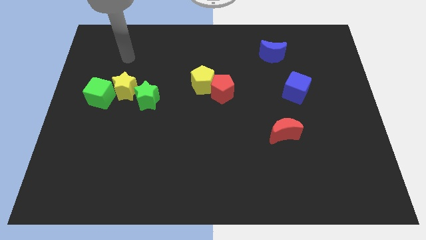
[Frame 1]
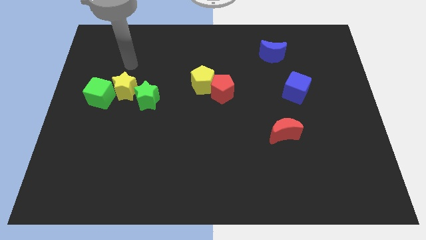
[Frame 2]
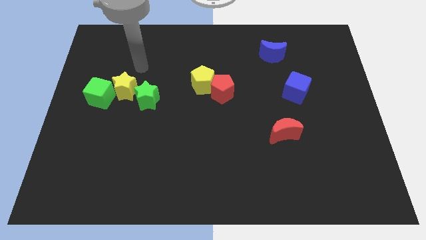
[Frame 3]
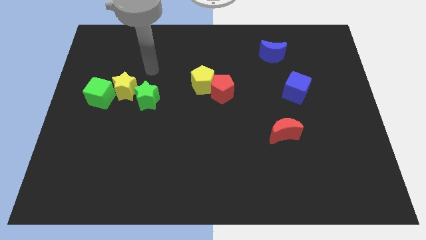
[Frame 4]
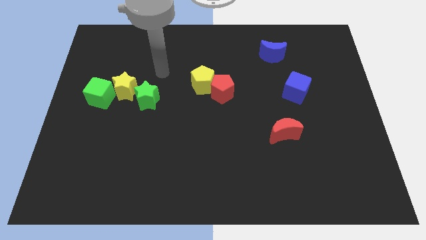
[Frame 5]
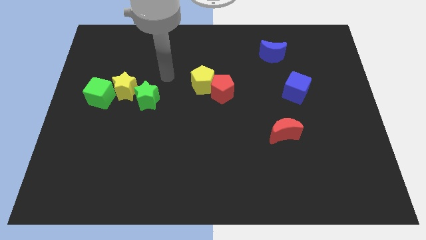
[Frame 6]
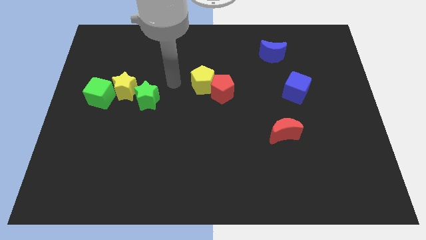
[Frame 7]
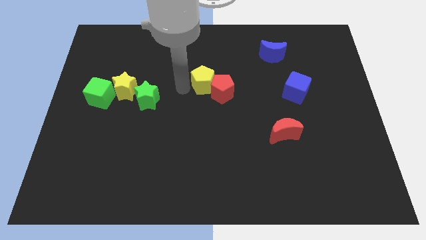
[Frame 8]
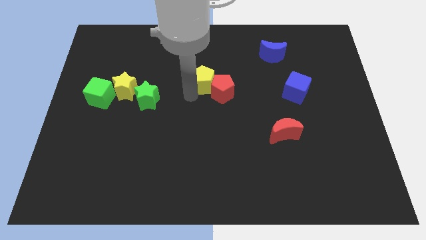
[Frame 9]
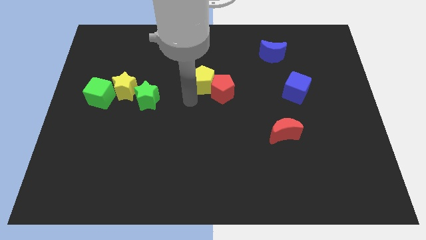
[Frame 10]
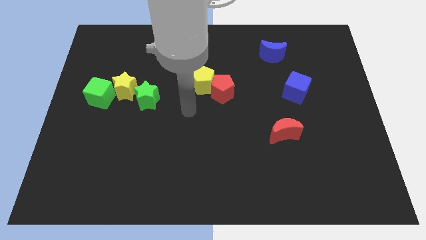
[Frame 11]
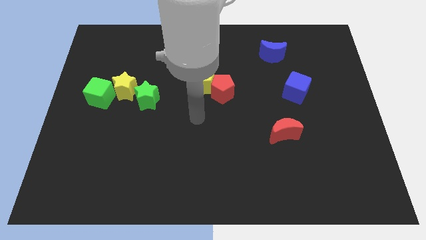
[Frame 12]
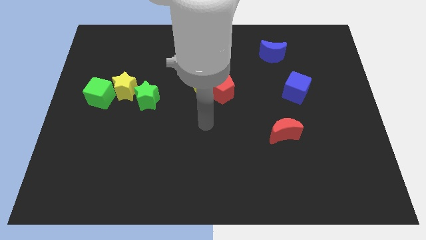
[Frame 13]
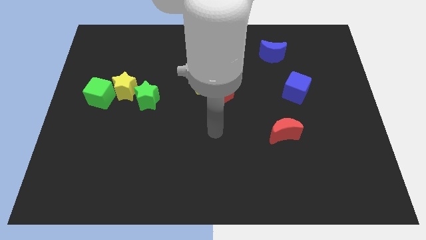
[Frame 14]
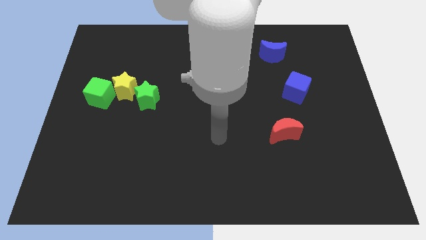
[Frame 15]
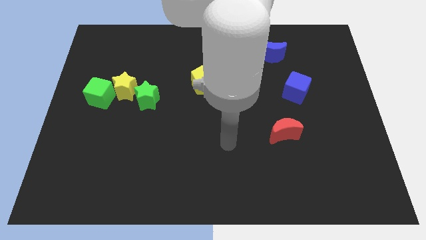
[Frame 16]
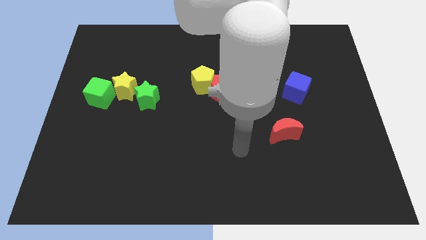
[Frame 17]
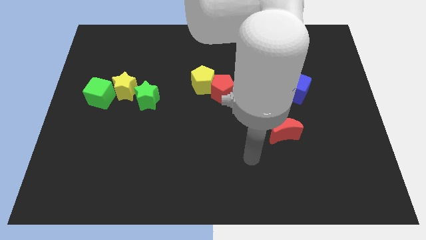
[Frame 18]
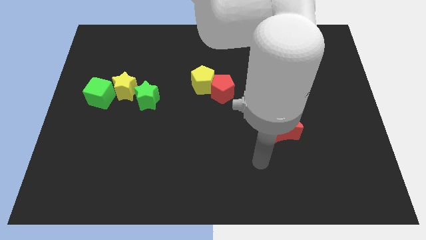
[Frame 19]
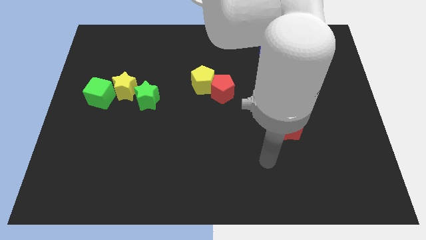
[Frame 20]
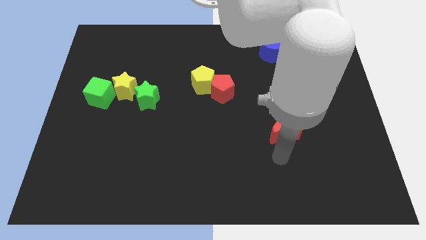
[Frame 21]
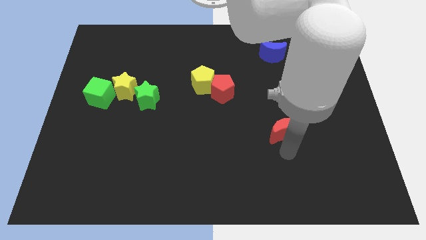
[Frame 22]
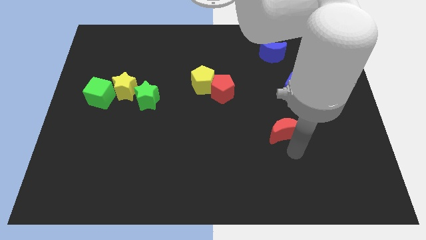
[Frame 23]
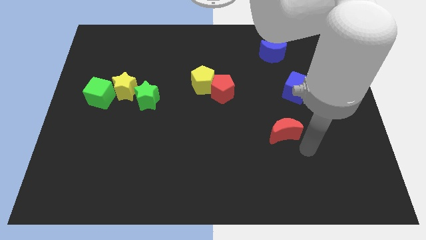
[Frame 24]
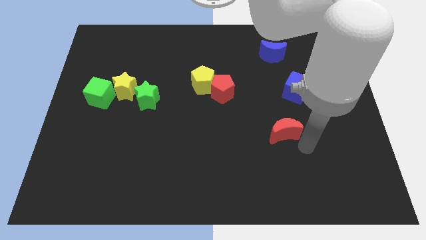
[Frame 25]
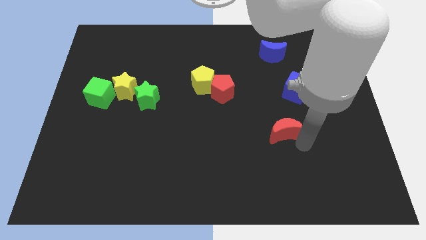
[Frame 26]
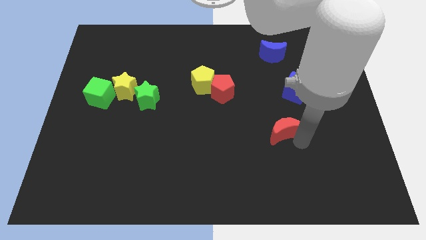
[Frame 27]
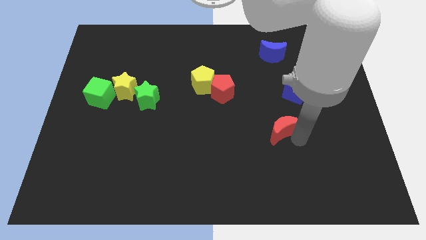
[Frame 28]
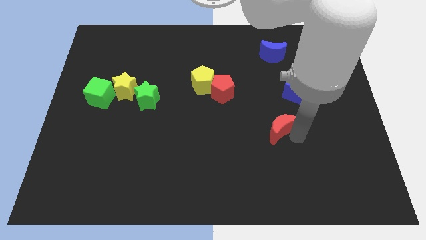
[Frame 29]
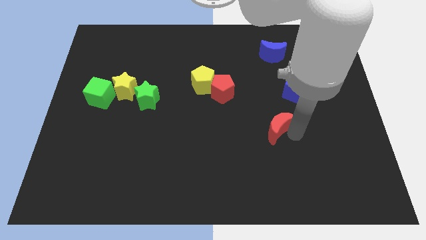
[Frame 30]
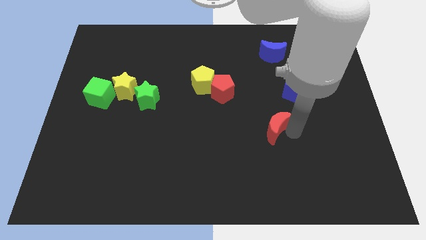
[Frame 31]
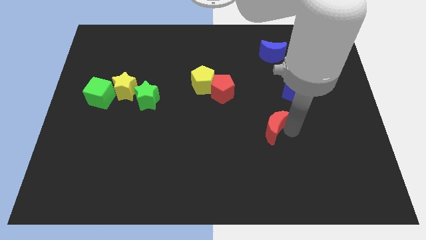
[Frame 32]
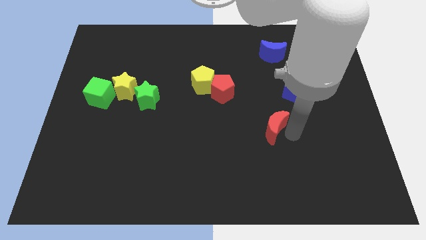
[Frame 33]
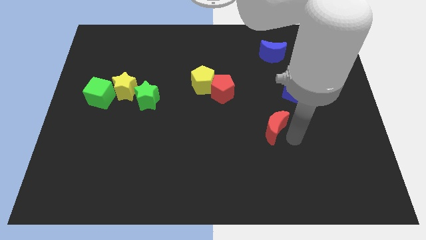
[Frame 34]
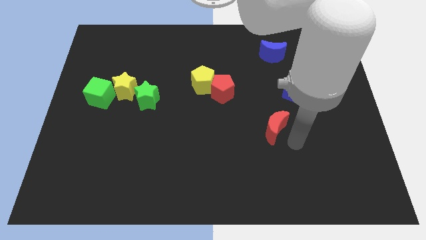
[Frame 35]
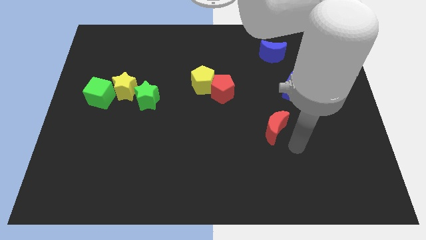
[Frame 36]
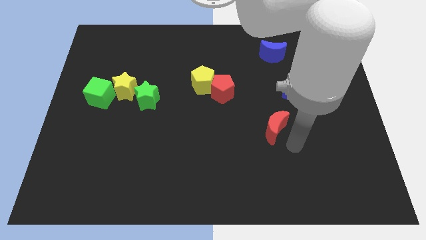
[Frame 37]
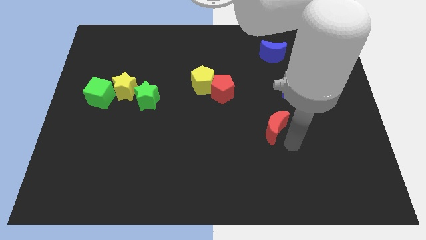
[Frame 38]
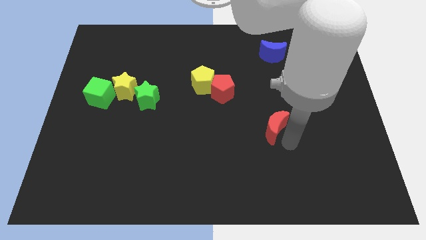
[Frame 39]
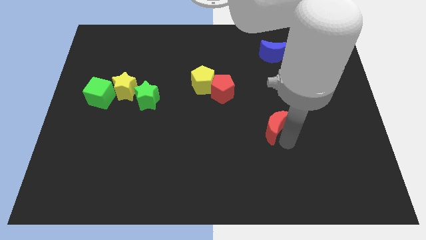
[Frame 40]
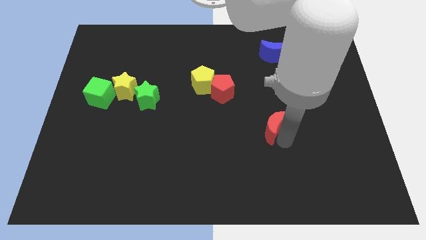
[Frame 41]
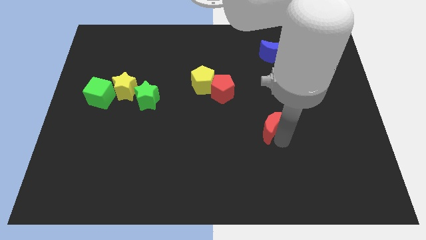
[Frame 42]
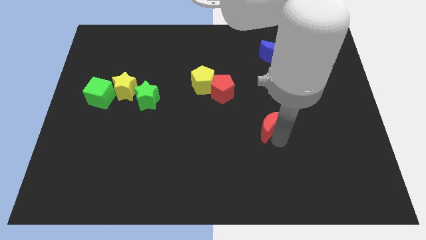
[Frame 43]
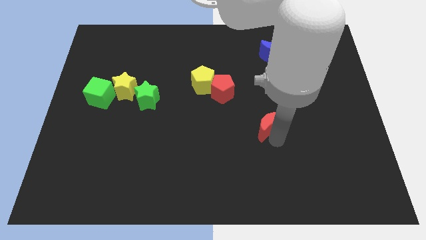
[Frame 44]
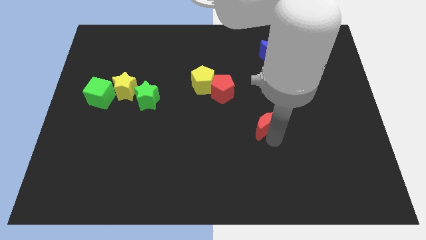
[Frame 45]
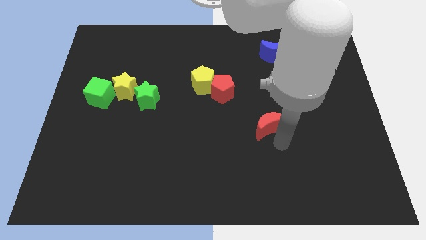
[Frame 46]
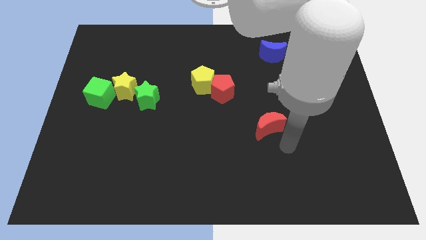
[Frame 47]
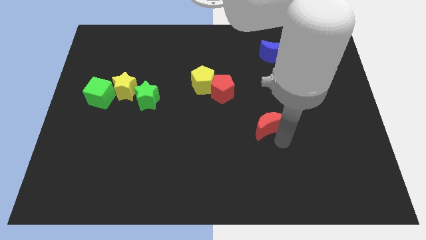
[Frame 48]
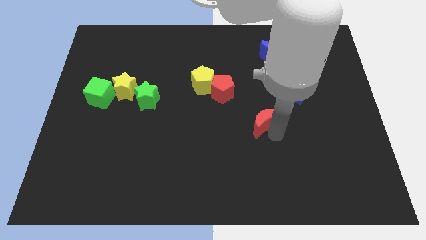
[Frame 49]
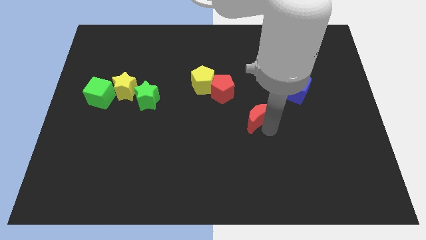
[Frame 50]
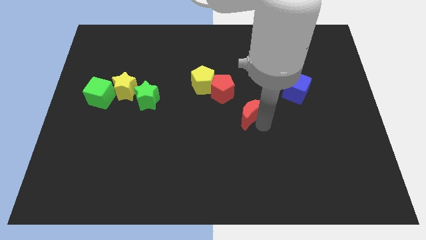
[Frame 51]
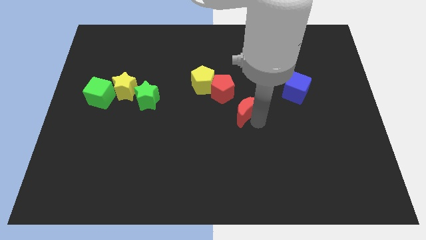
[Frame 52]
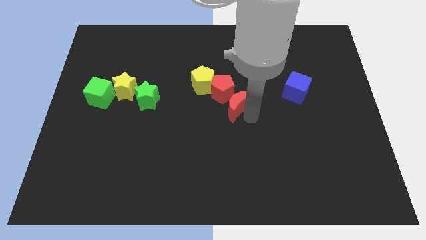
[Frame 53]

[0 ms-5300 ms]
slide the red moon next to the red pentagon

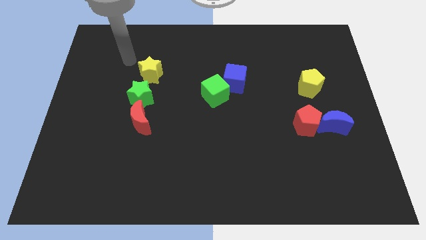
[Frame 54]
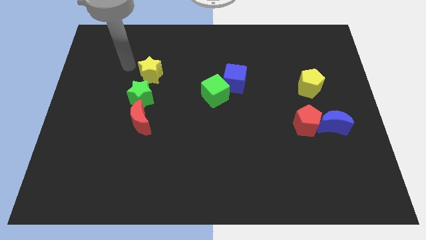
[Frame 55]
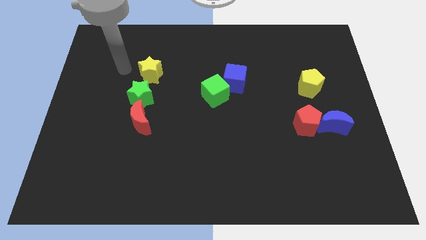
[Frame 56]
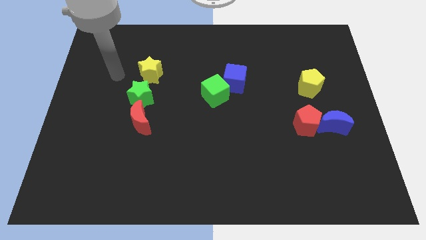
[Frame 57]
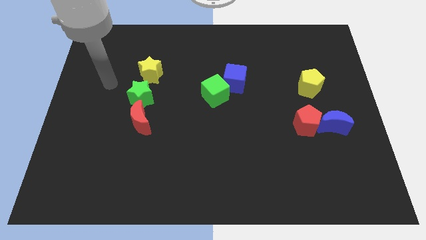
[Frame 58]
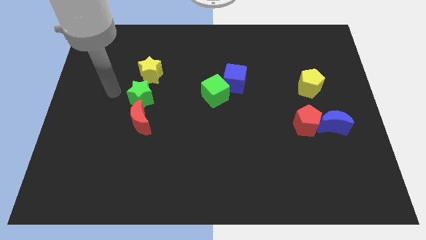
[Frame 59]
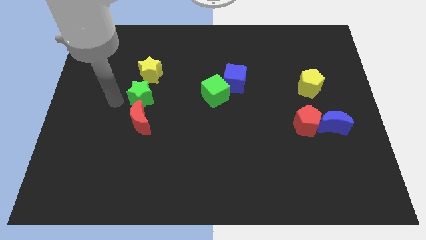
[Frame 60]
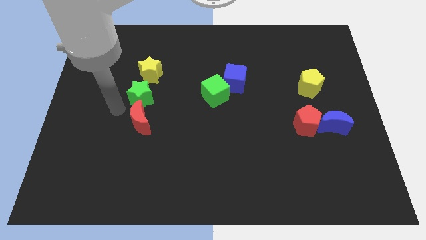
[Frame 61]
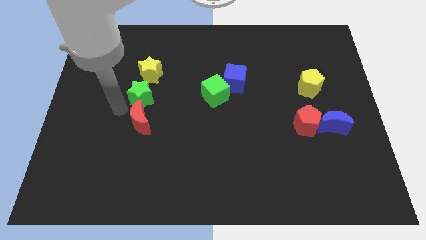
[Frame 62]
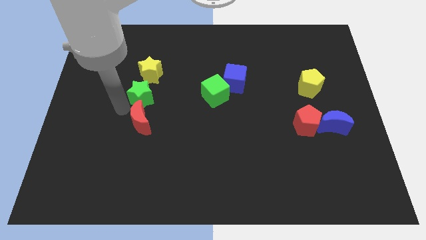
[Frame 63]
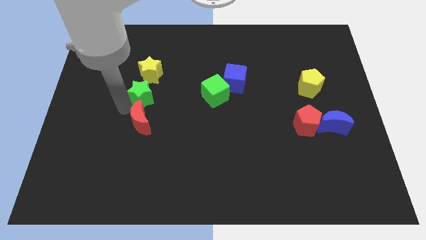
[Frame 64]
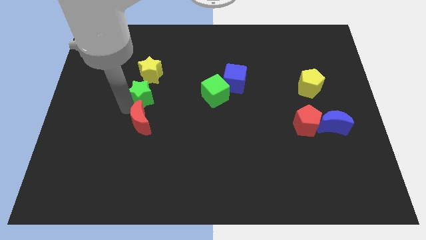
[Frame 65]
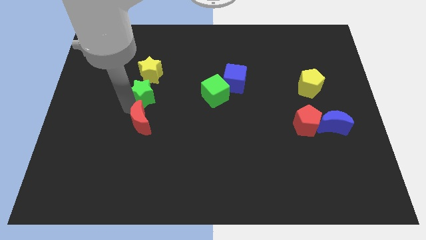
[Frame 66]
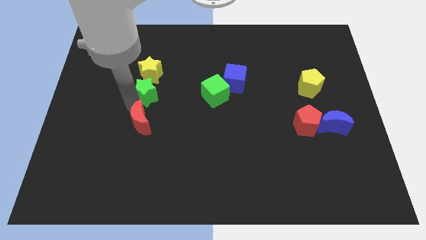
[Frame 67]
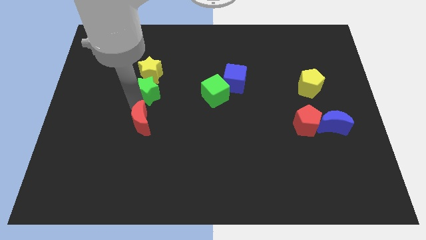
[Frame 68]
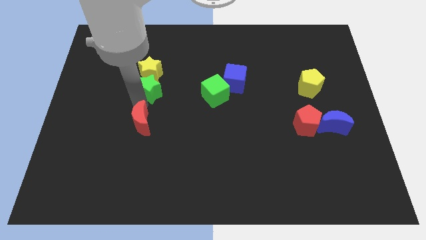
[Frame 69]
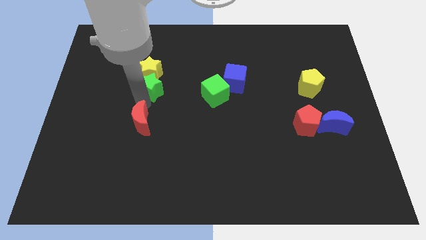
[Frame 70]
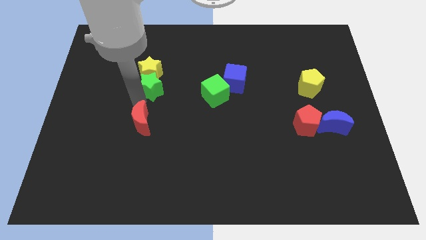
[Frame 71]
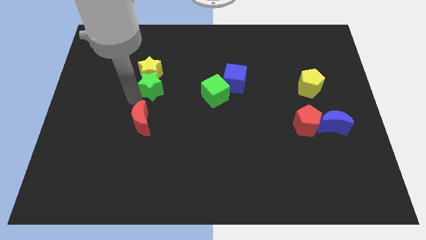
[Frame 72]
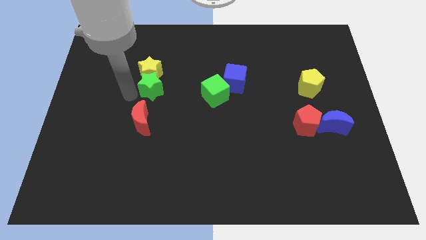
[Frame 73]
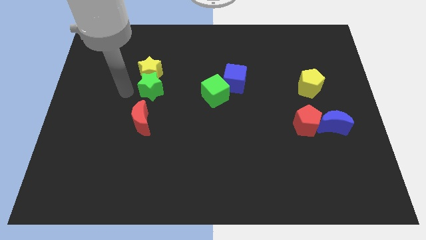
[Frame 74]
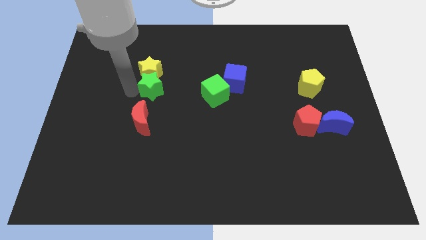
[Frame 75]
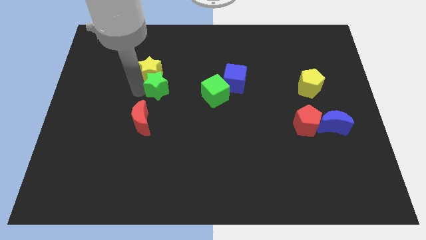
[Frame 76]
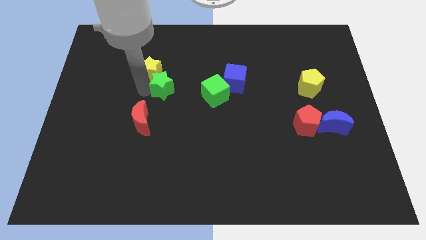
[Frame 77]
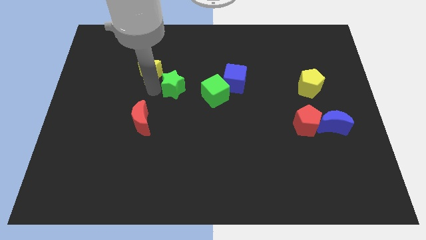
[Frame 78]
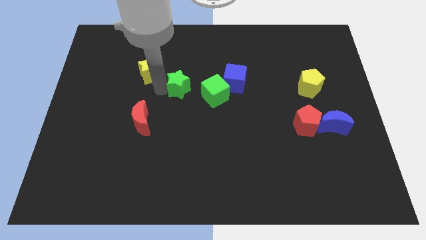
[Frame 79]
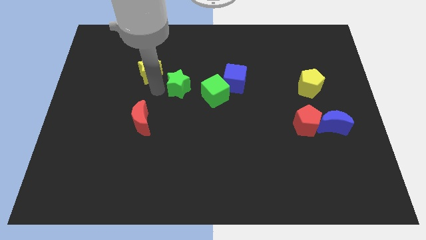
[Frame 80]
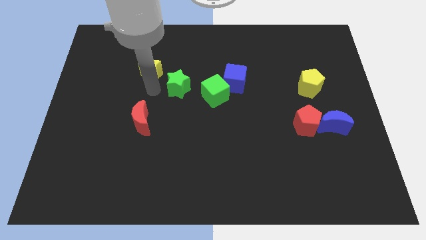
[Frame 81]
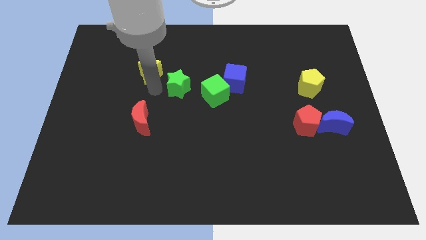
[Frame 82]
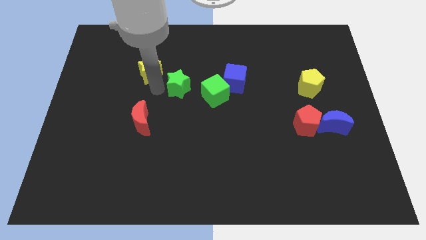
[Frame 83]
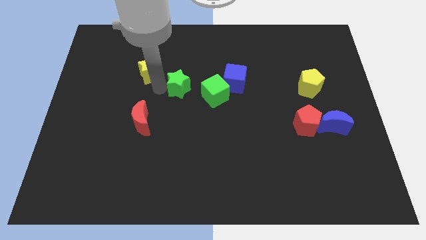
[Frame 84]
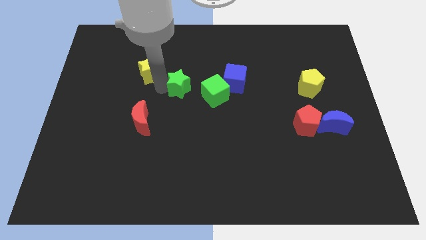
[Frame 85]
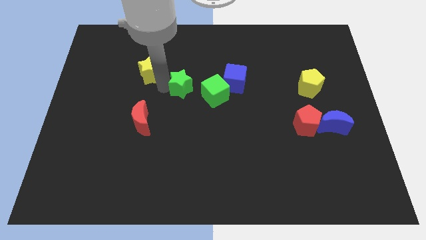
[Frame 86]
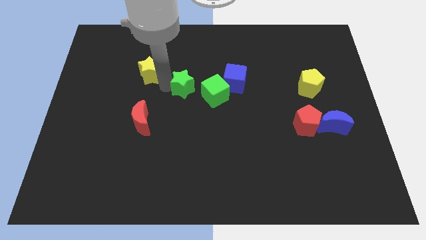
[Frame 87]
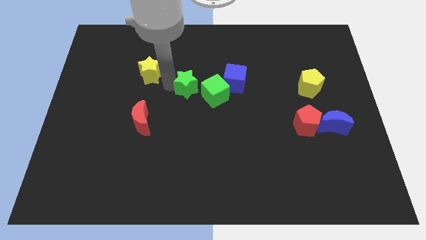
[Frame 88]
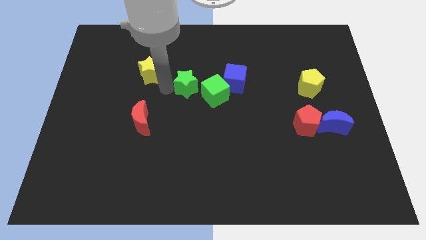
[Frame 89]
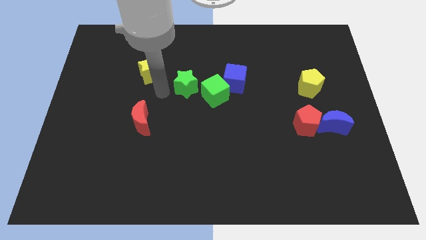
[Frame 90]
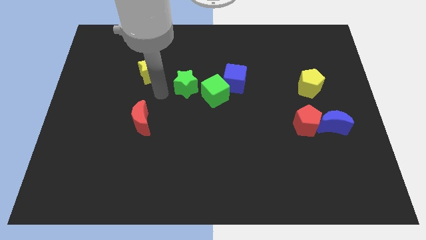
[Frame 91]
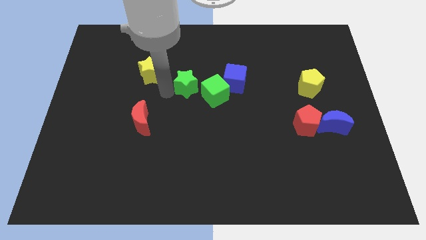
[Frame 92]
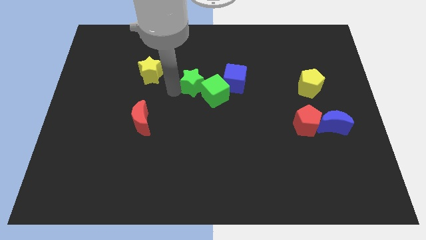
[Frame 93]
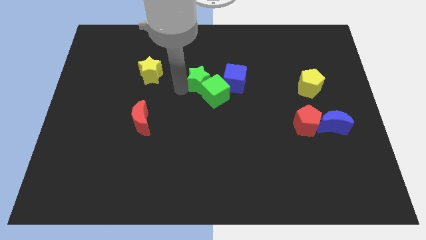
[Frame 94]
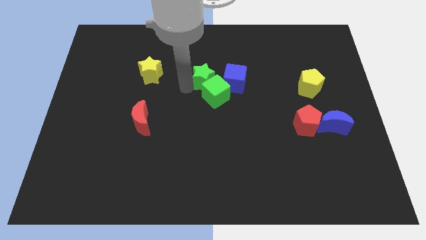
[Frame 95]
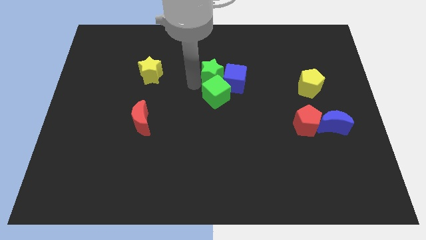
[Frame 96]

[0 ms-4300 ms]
put the green star to the blue cube
